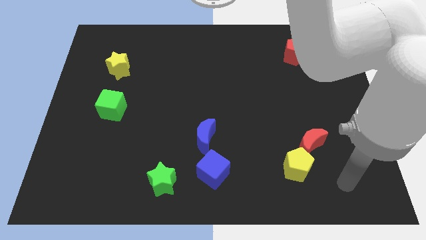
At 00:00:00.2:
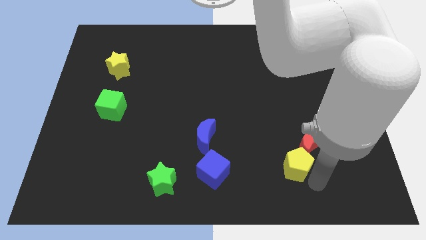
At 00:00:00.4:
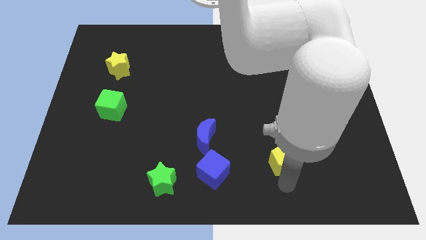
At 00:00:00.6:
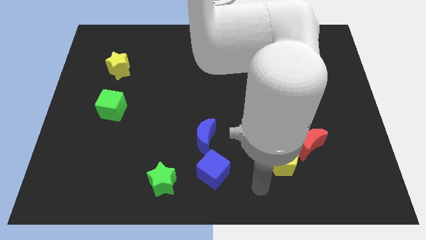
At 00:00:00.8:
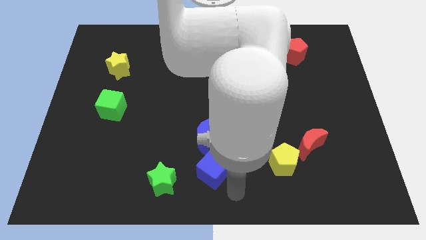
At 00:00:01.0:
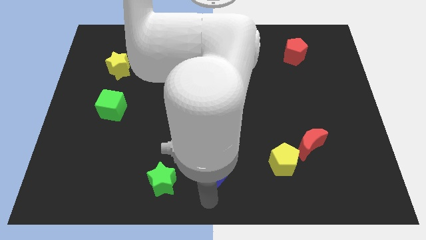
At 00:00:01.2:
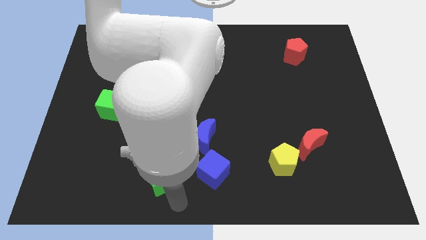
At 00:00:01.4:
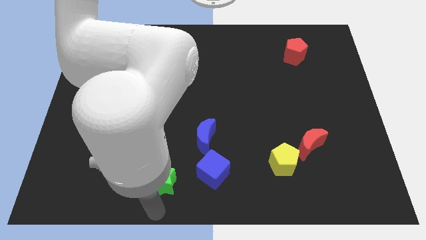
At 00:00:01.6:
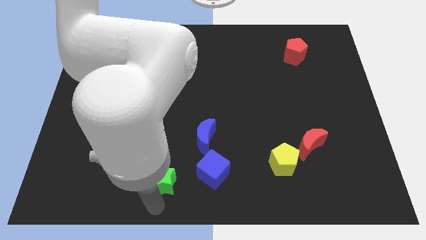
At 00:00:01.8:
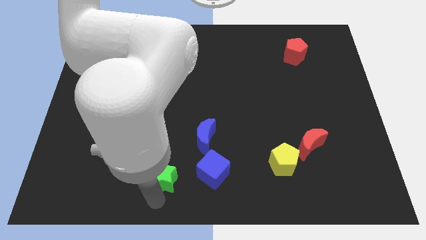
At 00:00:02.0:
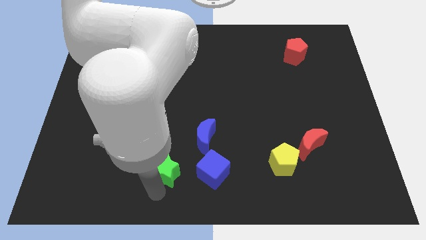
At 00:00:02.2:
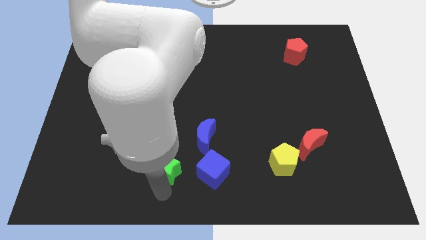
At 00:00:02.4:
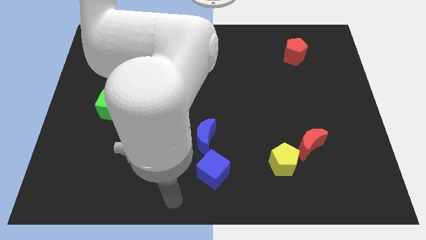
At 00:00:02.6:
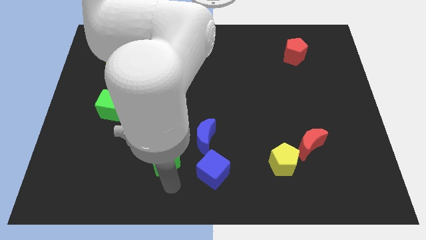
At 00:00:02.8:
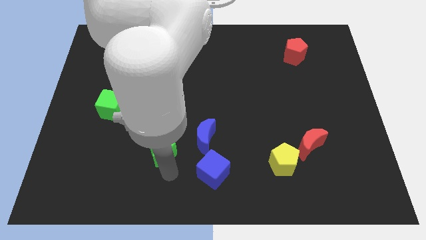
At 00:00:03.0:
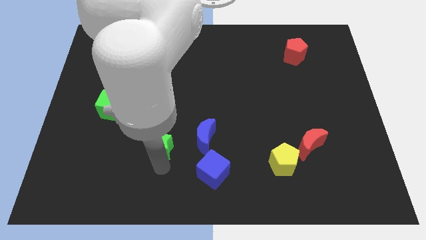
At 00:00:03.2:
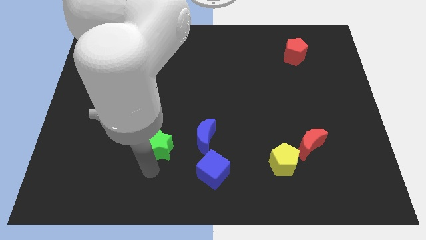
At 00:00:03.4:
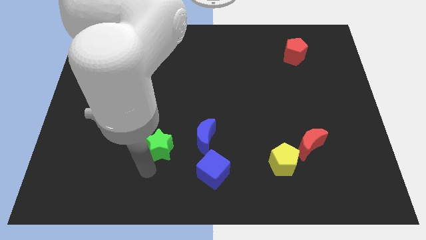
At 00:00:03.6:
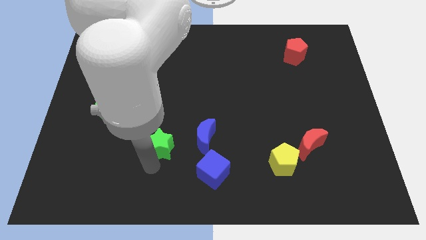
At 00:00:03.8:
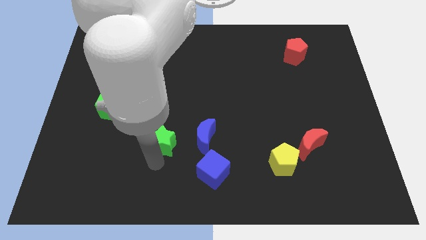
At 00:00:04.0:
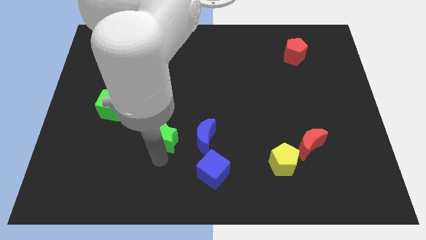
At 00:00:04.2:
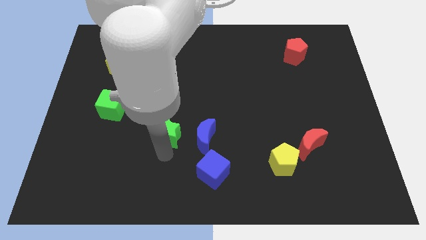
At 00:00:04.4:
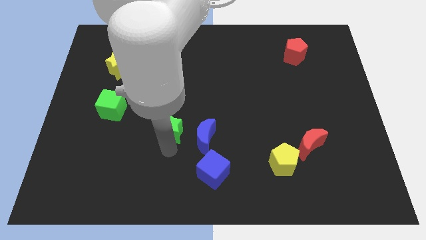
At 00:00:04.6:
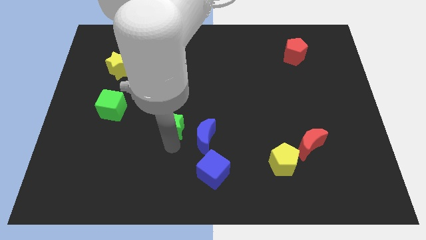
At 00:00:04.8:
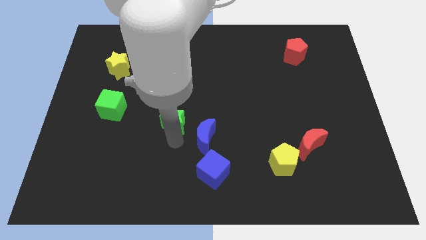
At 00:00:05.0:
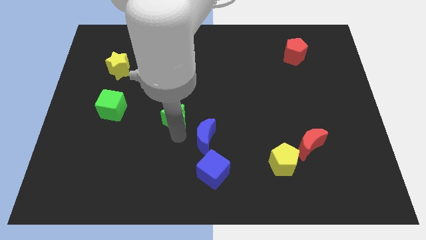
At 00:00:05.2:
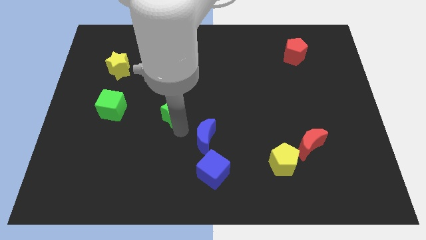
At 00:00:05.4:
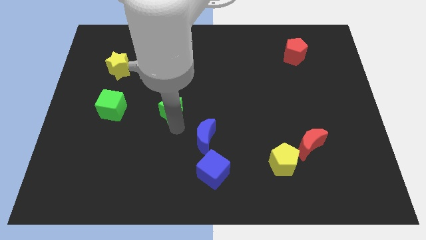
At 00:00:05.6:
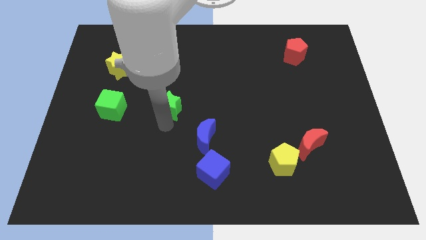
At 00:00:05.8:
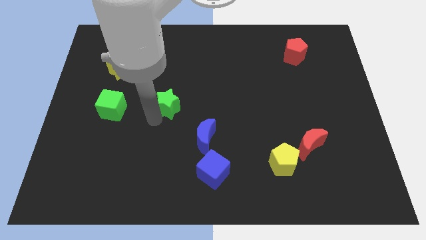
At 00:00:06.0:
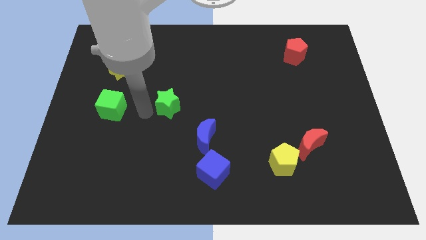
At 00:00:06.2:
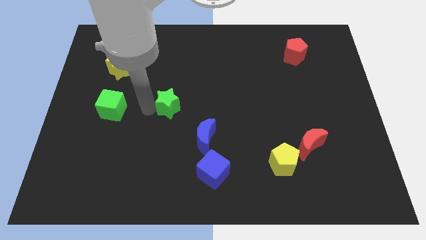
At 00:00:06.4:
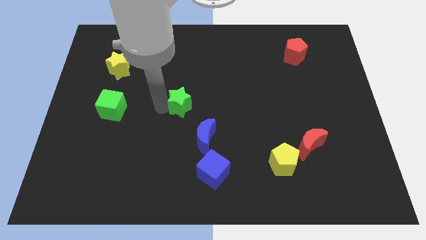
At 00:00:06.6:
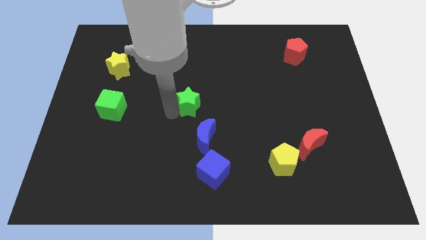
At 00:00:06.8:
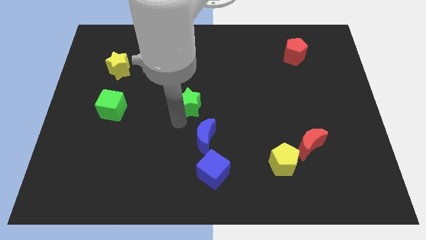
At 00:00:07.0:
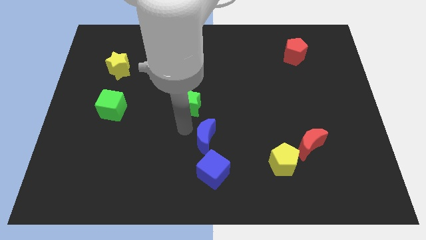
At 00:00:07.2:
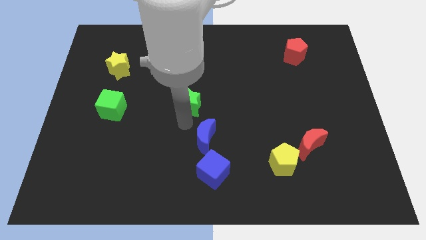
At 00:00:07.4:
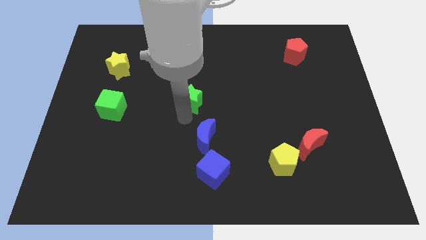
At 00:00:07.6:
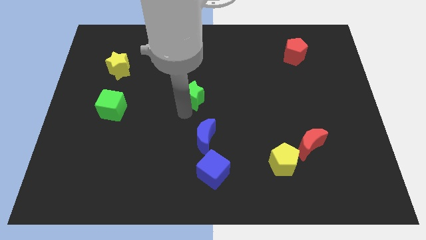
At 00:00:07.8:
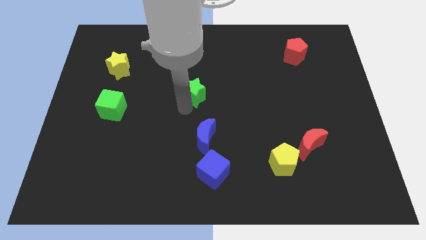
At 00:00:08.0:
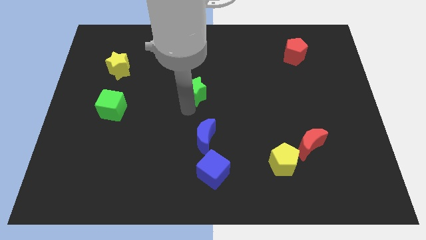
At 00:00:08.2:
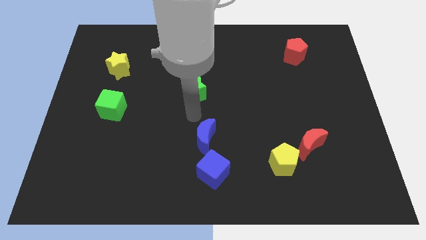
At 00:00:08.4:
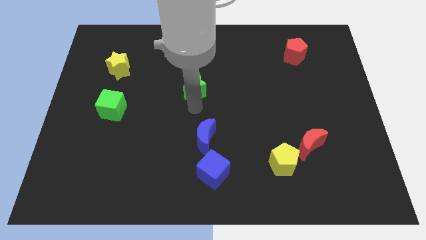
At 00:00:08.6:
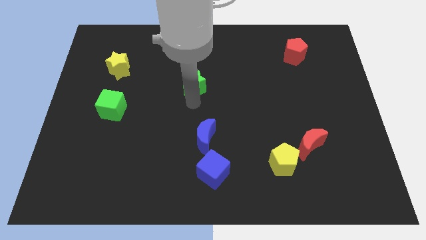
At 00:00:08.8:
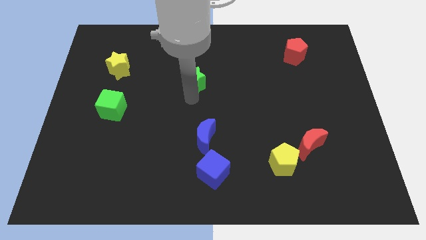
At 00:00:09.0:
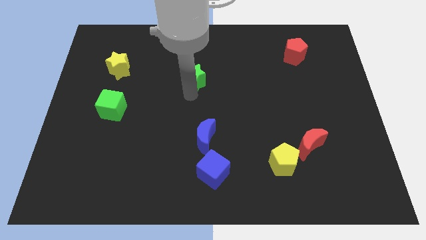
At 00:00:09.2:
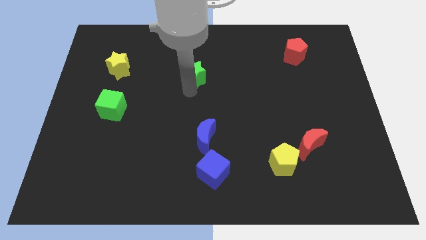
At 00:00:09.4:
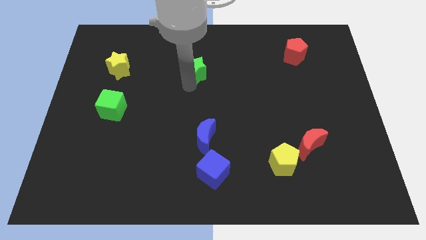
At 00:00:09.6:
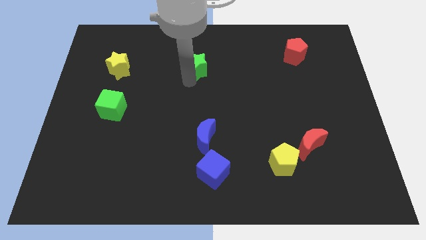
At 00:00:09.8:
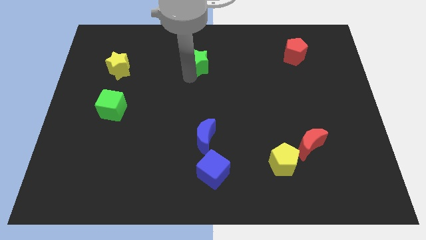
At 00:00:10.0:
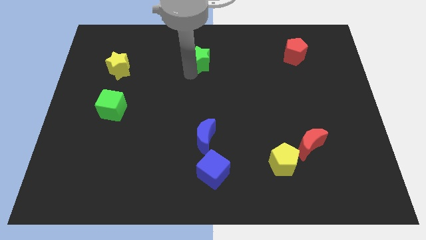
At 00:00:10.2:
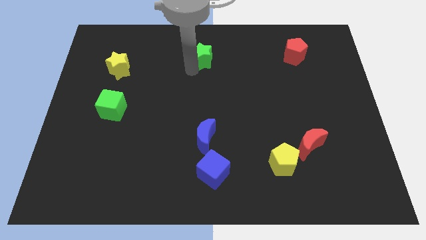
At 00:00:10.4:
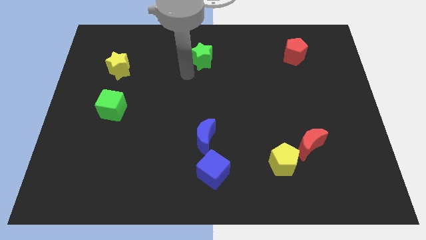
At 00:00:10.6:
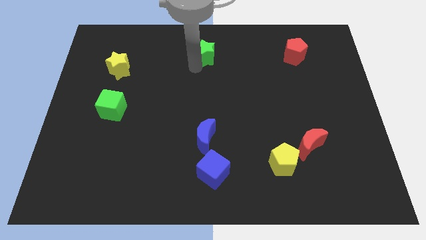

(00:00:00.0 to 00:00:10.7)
push the green star to the top
